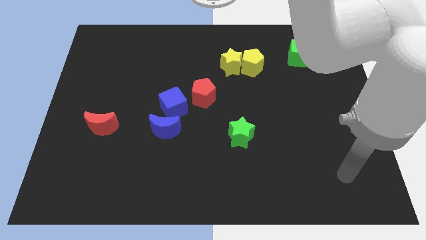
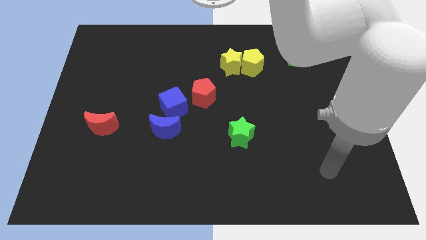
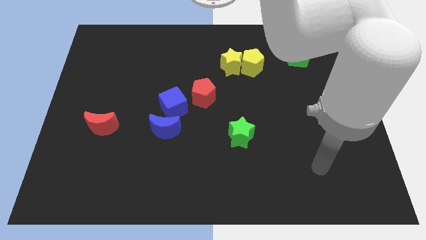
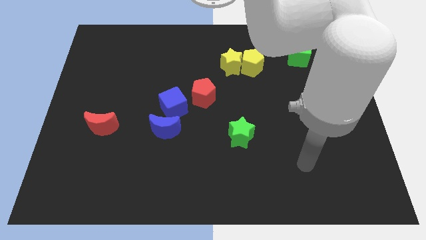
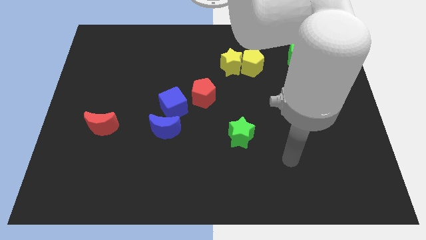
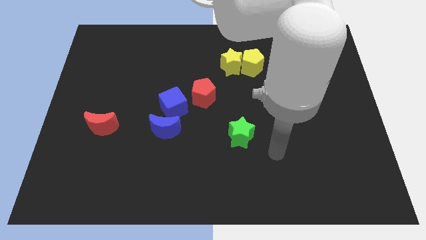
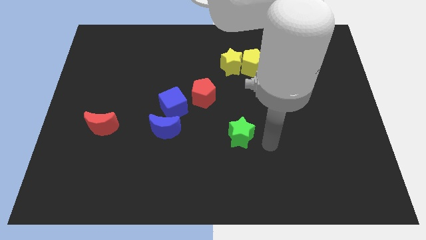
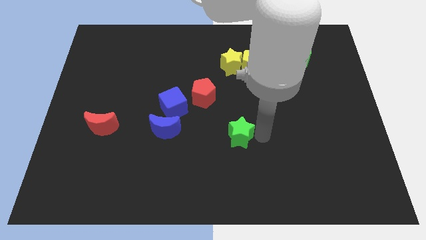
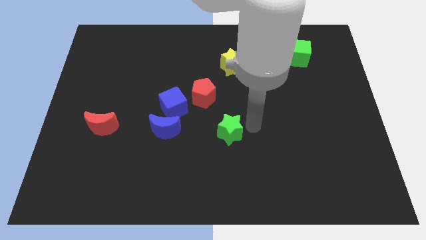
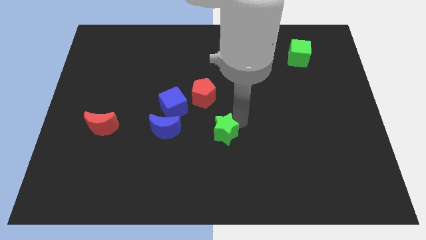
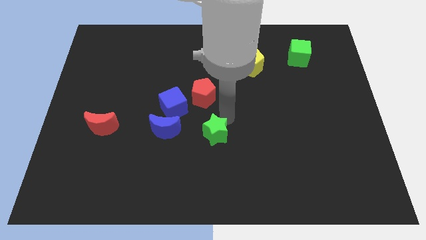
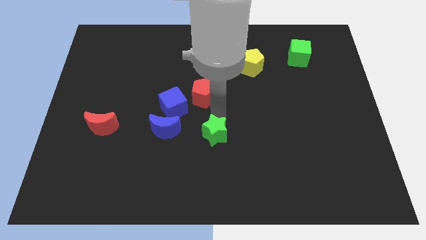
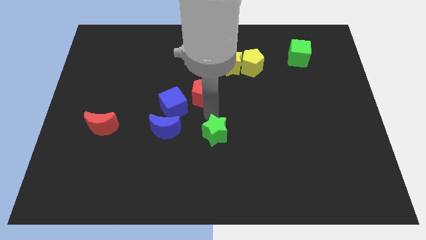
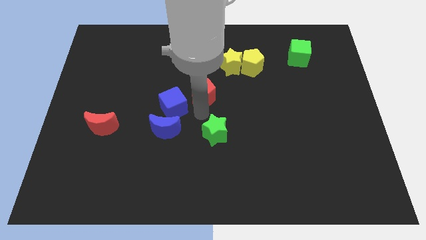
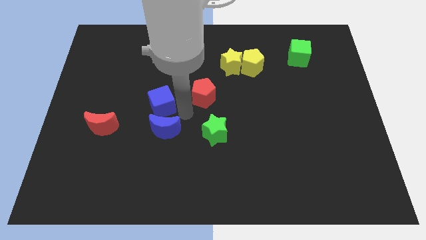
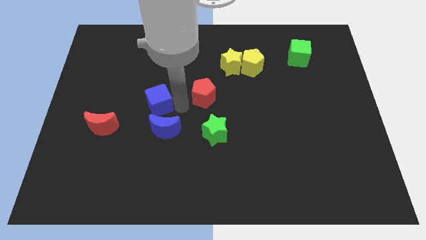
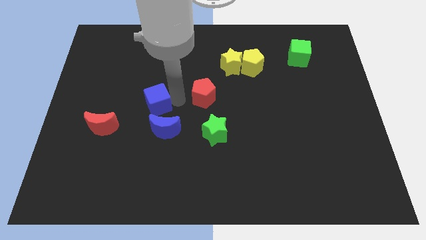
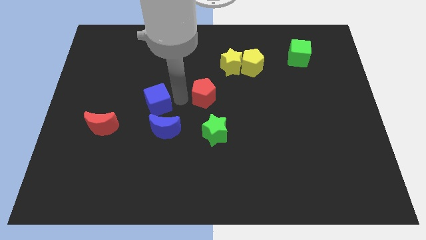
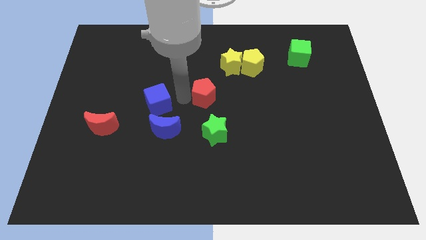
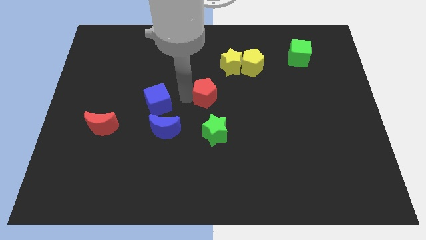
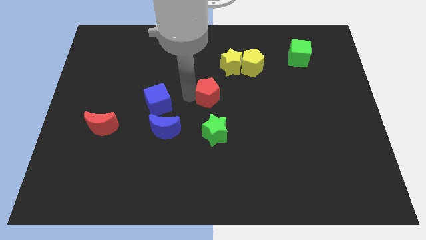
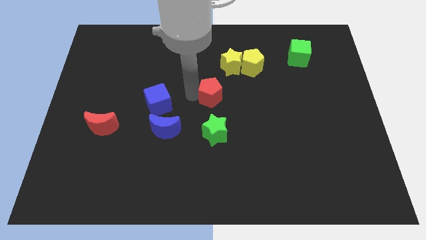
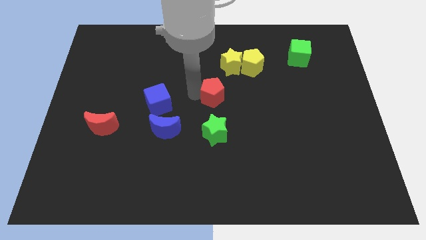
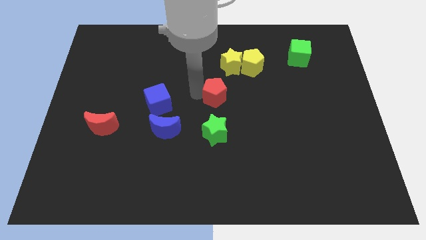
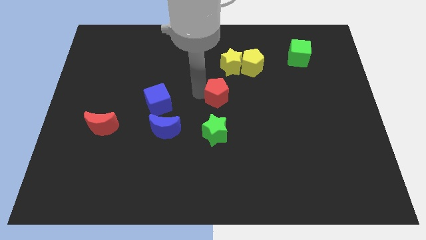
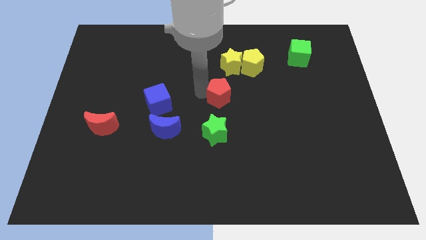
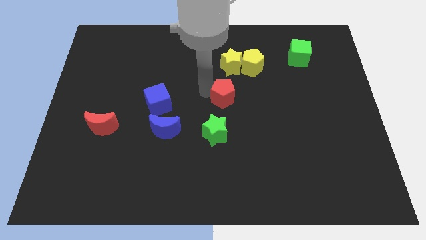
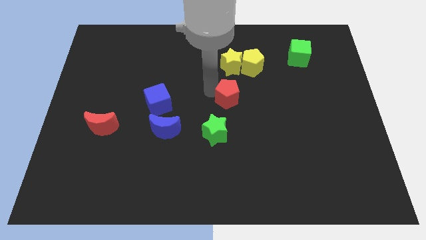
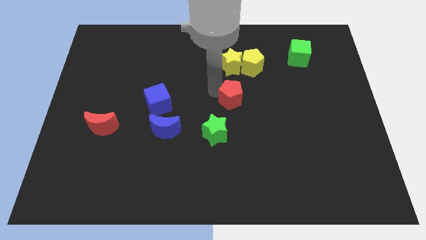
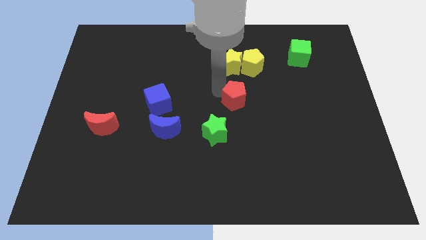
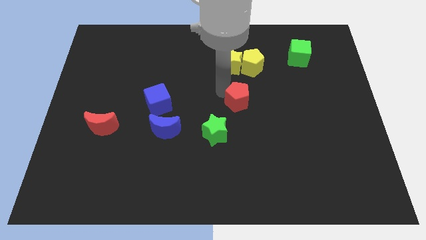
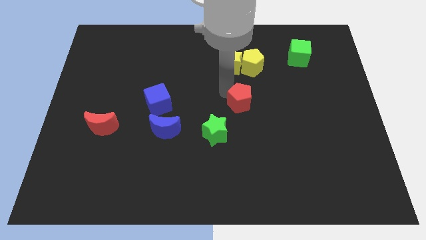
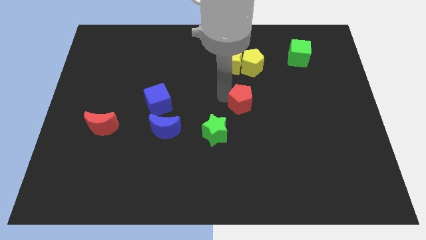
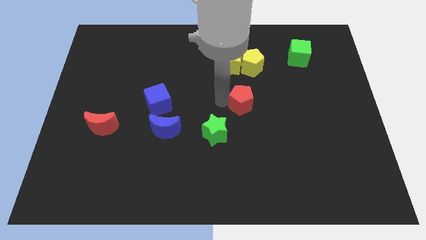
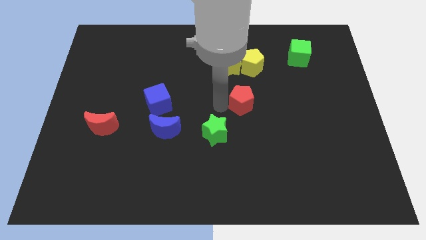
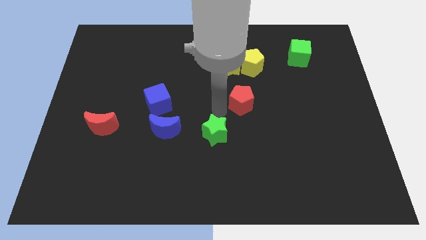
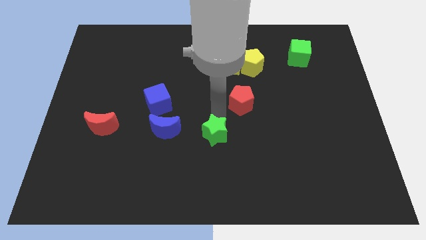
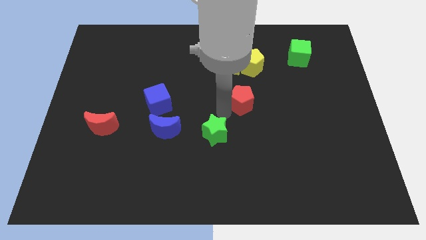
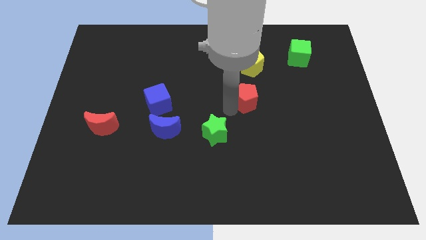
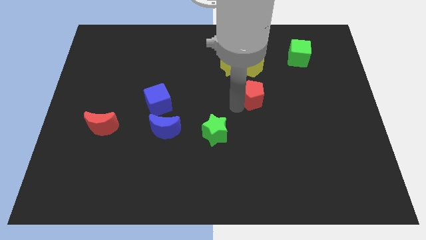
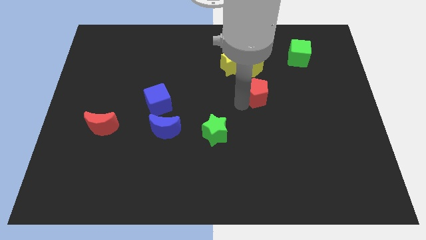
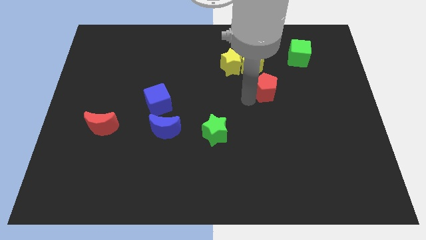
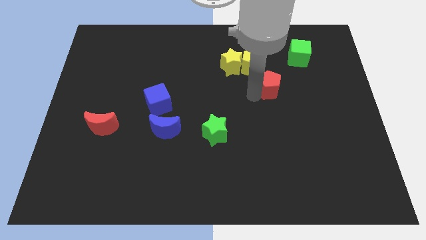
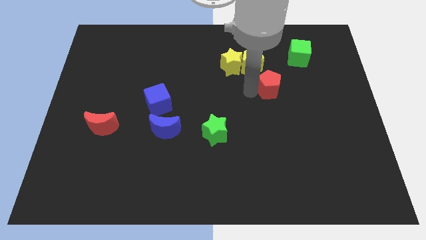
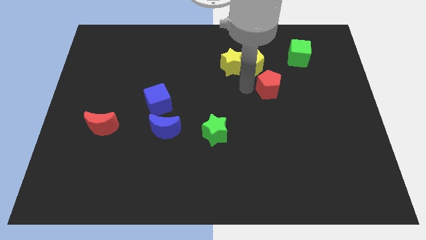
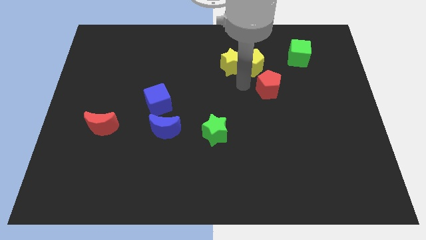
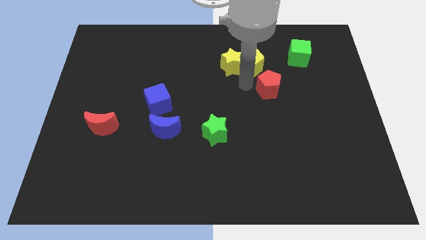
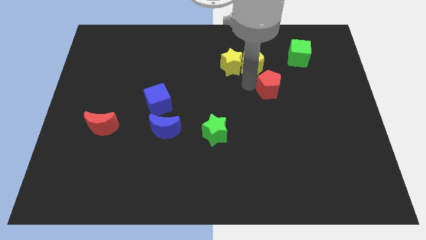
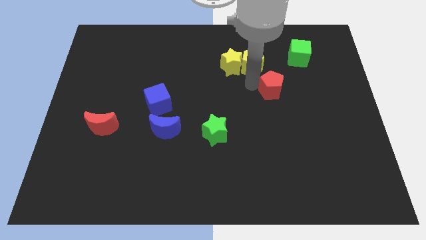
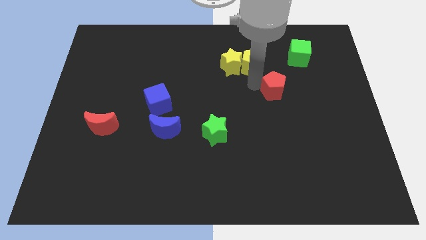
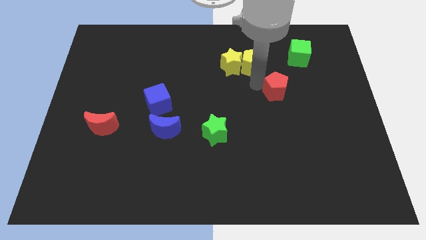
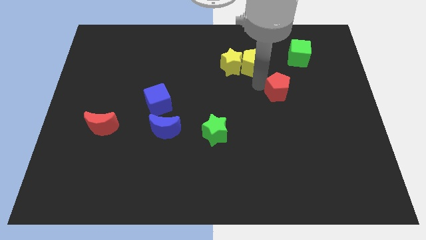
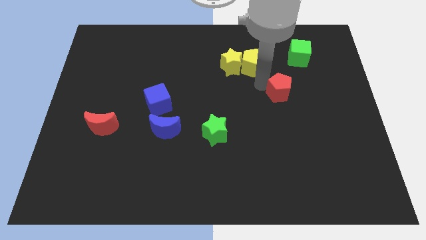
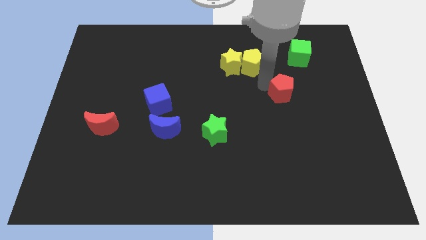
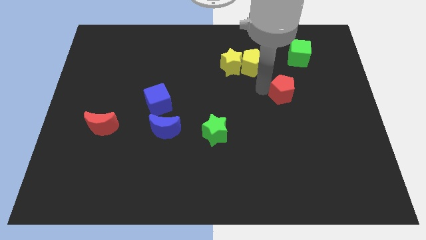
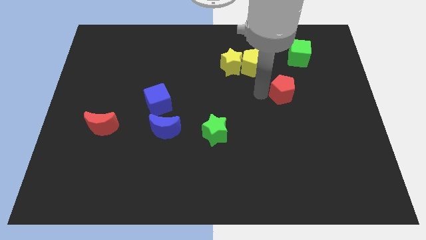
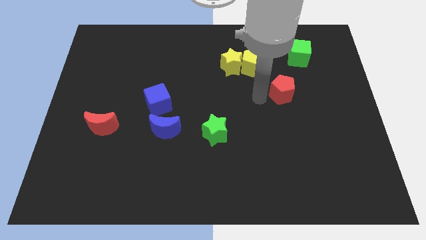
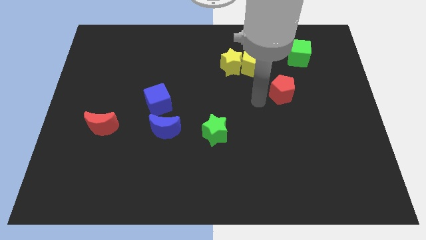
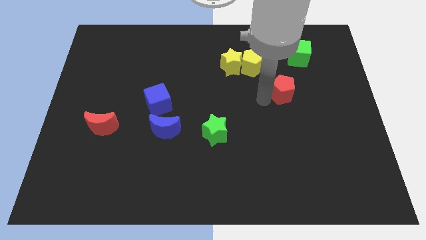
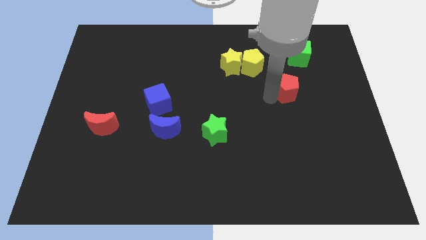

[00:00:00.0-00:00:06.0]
push the red pentagon below the green cube

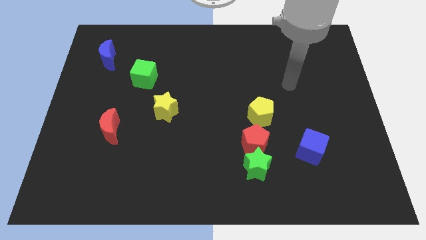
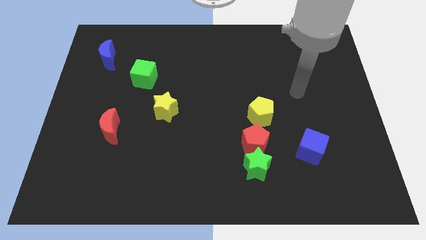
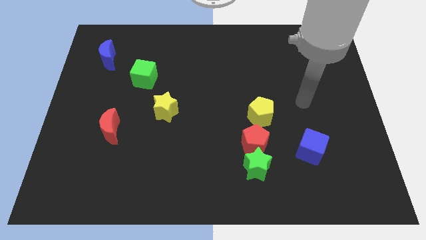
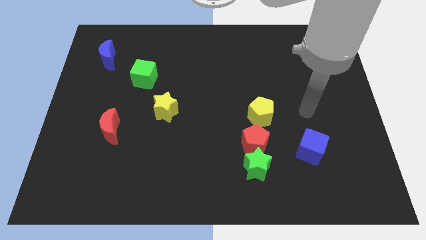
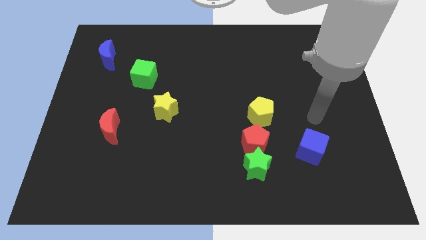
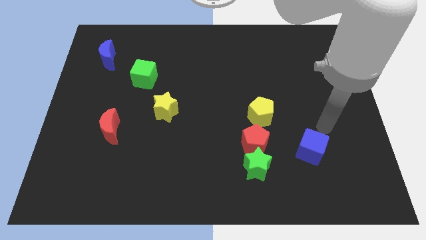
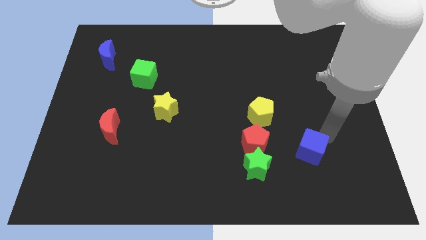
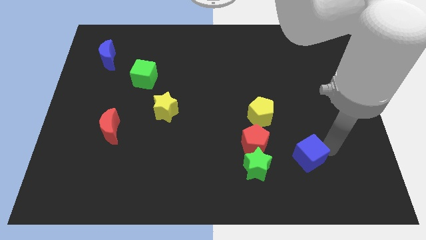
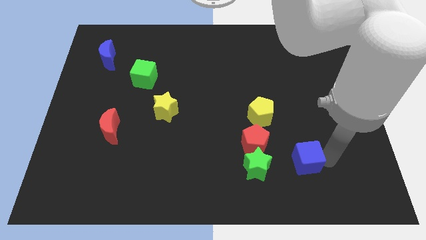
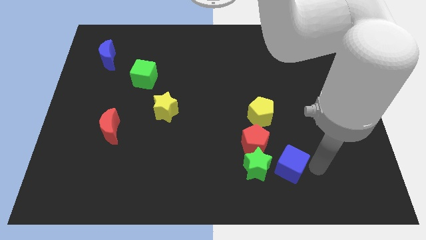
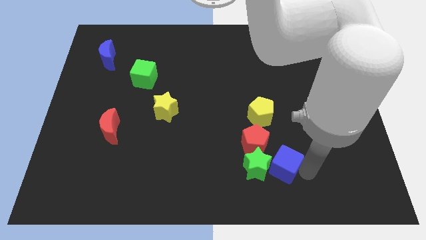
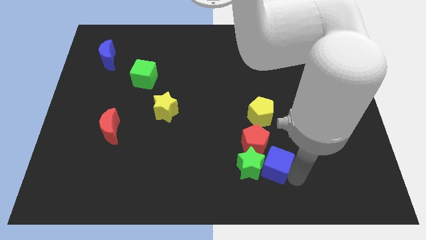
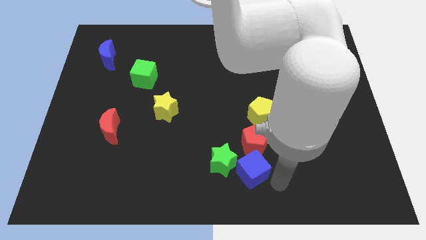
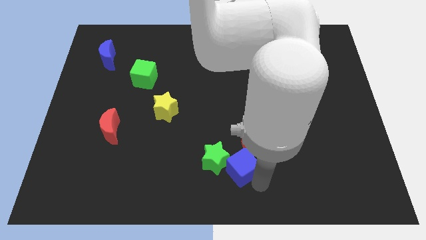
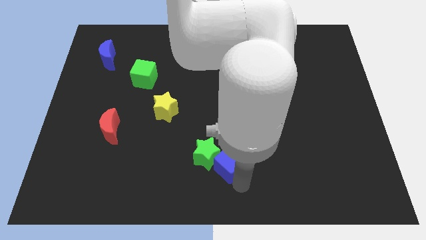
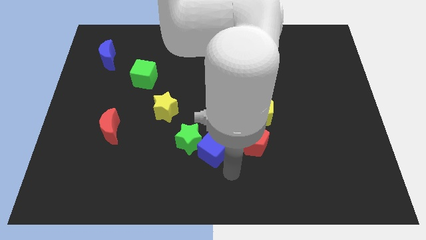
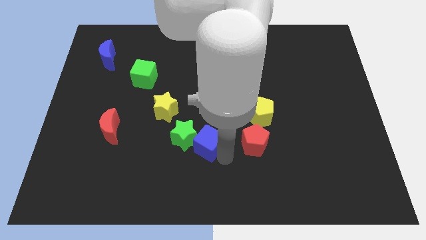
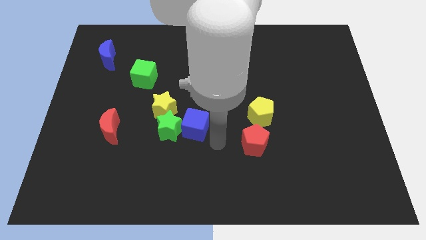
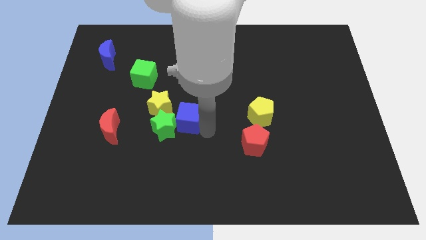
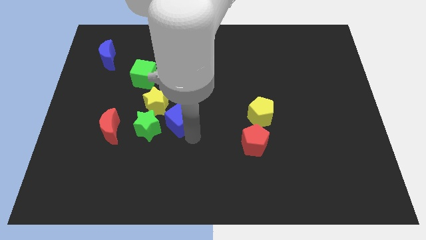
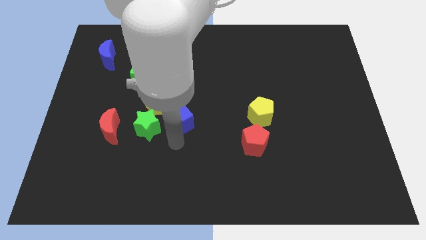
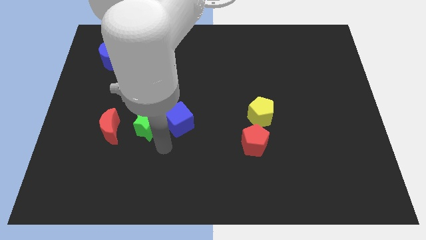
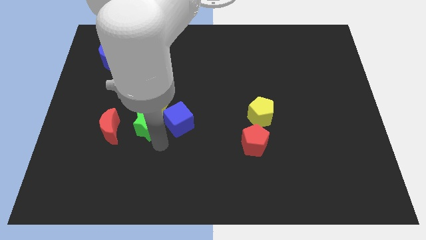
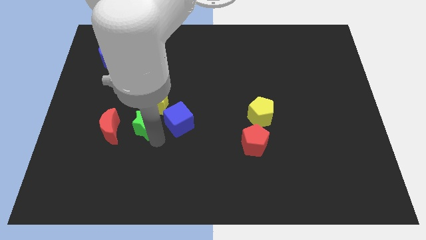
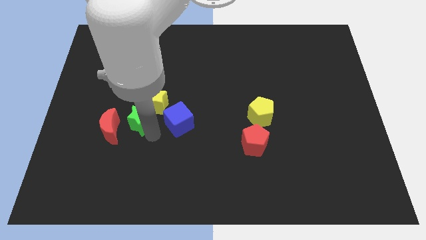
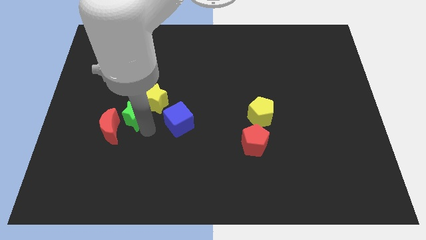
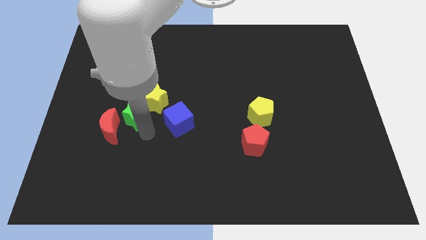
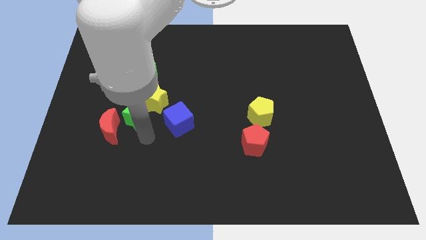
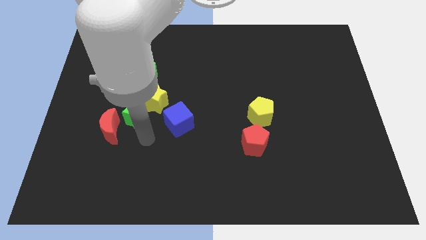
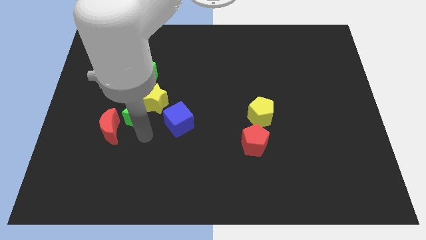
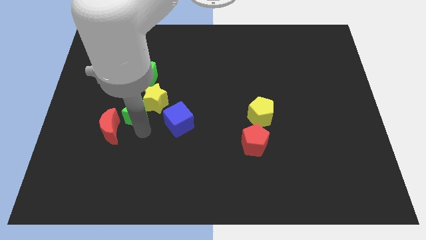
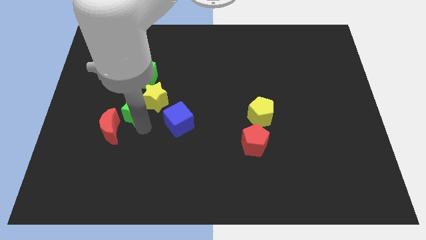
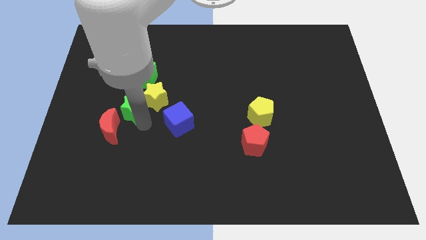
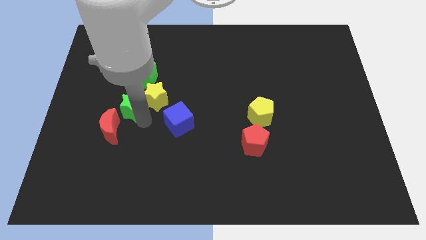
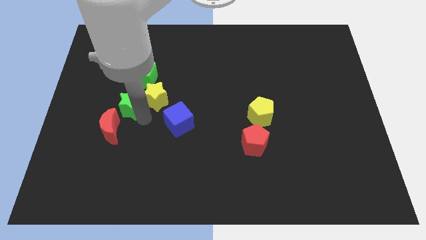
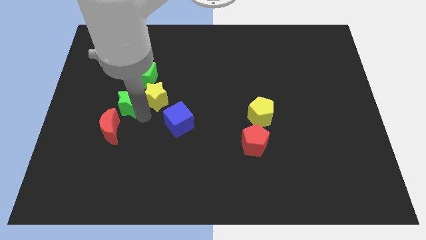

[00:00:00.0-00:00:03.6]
put the green star to the bottom left side of the green cube
